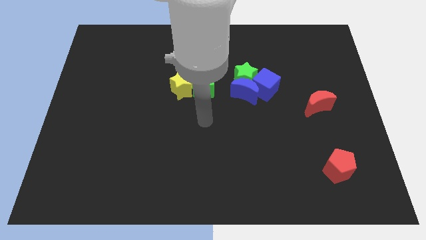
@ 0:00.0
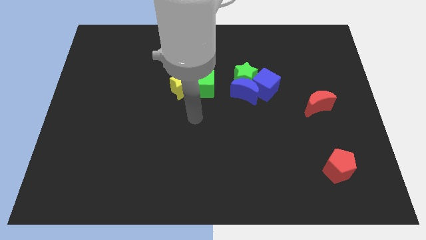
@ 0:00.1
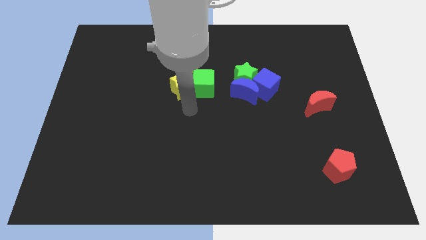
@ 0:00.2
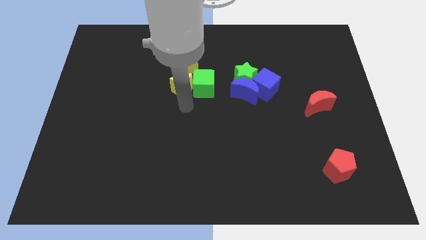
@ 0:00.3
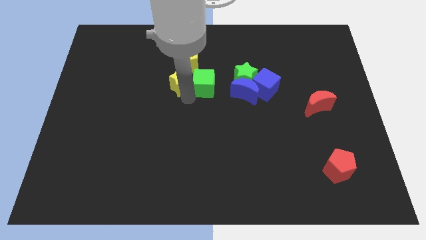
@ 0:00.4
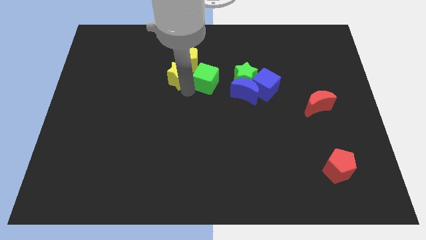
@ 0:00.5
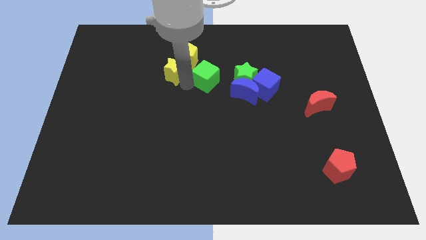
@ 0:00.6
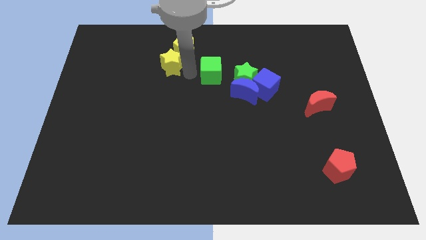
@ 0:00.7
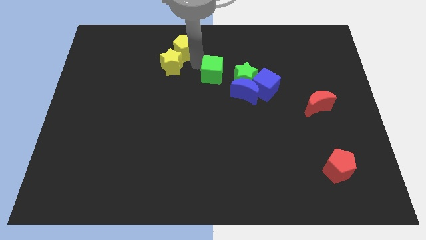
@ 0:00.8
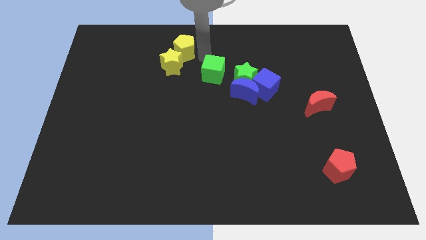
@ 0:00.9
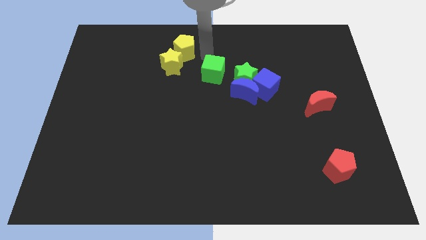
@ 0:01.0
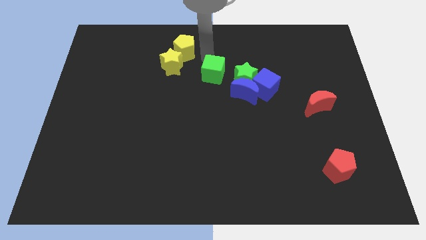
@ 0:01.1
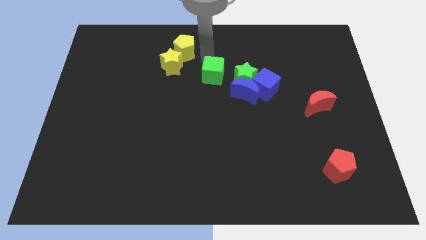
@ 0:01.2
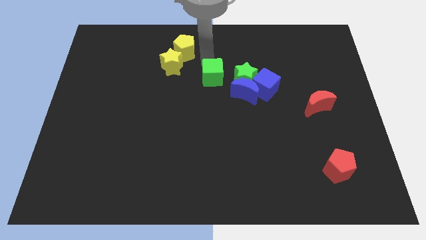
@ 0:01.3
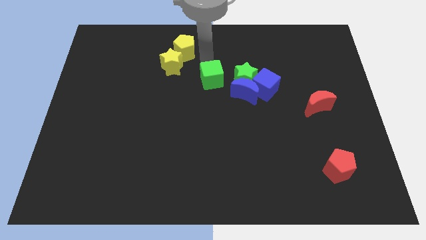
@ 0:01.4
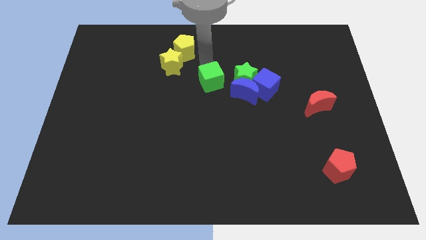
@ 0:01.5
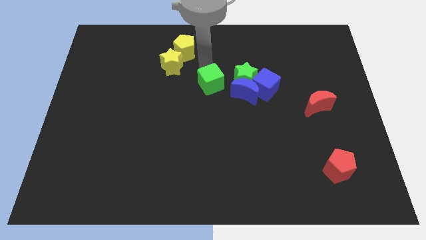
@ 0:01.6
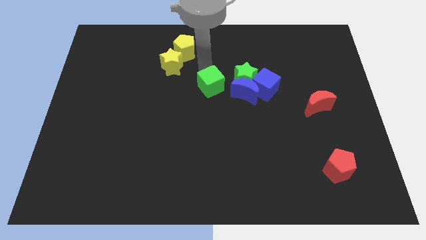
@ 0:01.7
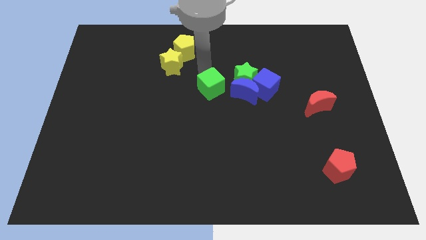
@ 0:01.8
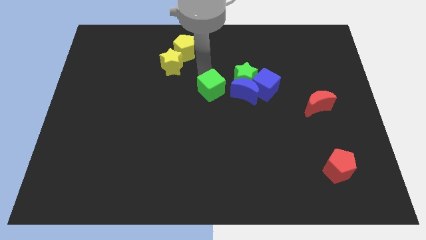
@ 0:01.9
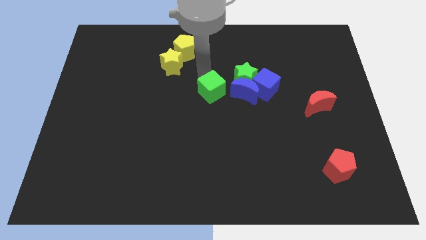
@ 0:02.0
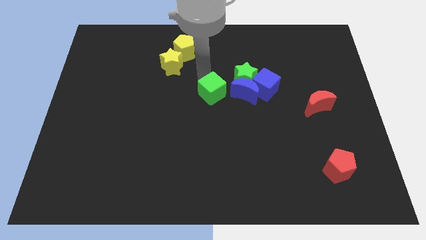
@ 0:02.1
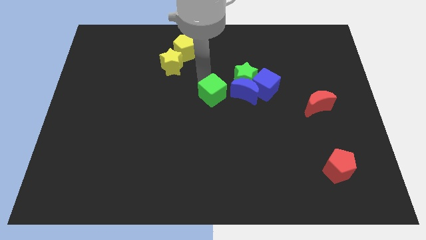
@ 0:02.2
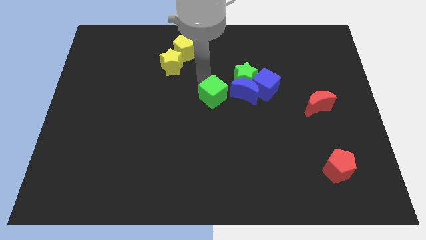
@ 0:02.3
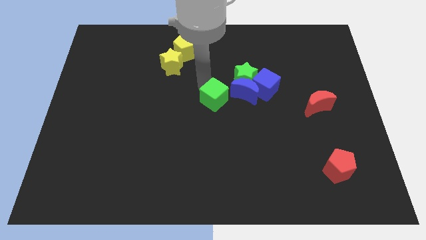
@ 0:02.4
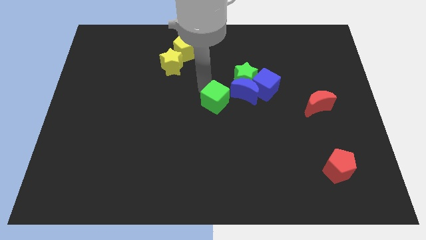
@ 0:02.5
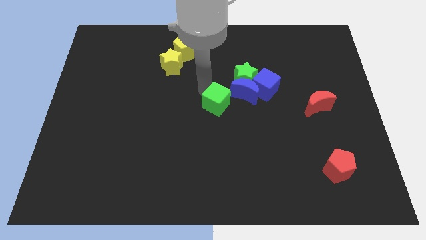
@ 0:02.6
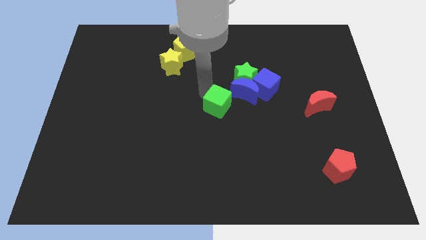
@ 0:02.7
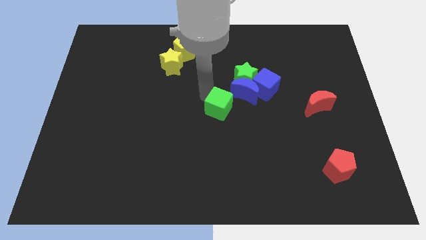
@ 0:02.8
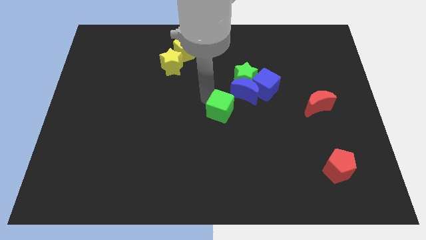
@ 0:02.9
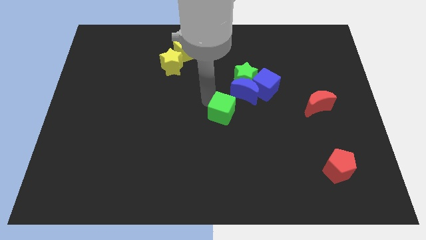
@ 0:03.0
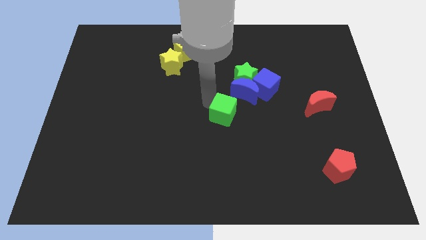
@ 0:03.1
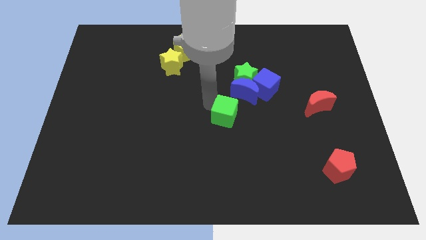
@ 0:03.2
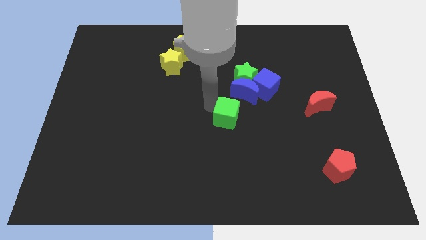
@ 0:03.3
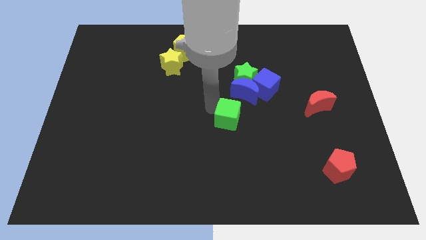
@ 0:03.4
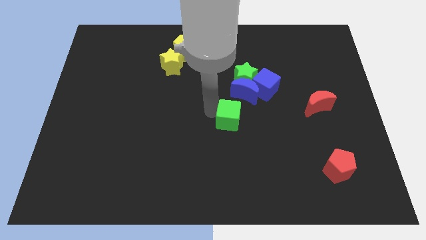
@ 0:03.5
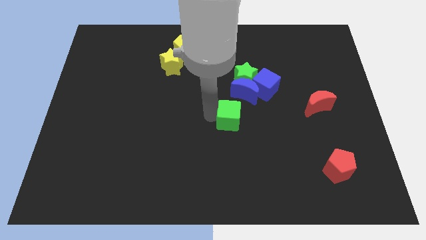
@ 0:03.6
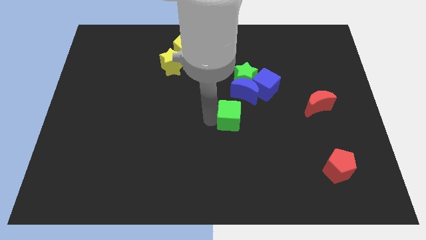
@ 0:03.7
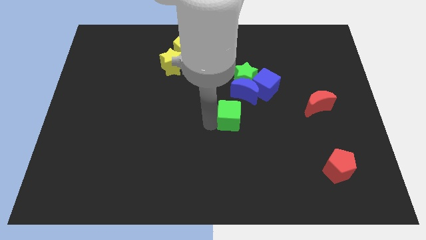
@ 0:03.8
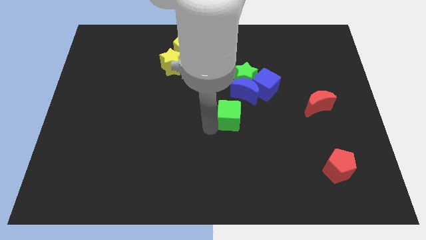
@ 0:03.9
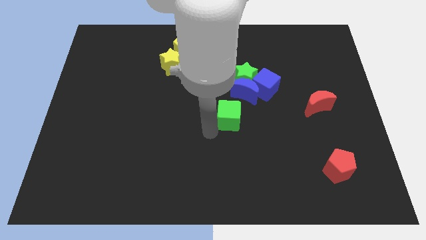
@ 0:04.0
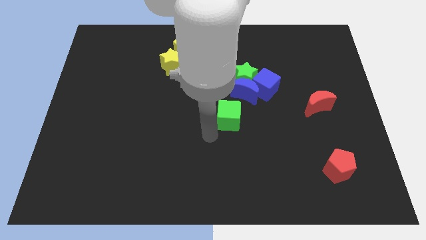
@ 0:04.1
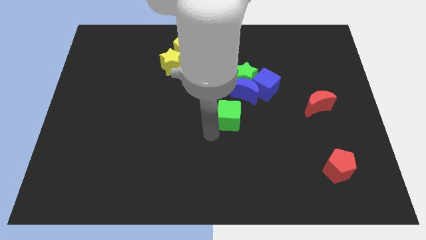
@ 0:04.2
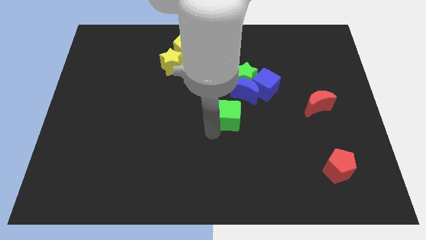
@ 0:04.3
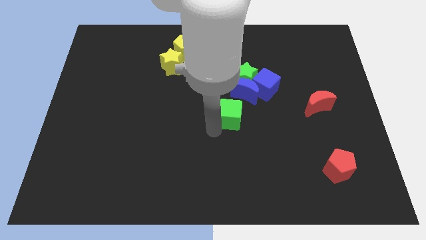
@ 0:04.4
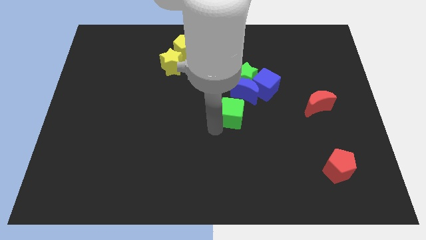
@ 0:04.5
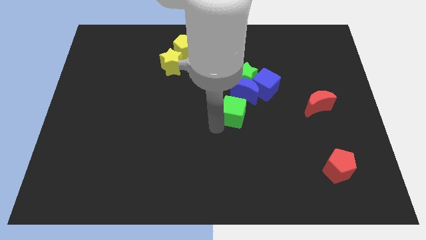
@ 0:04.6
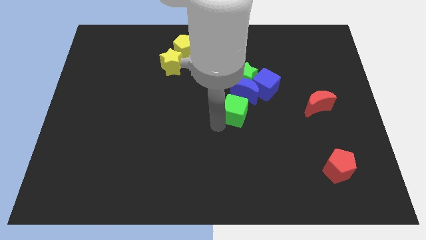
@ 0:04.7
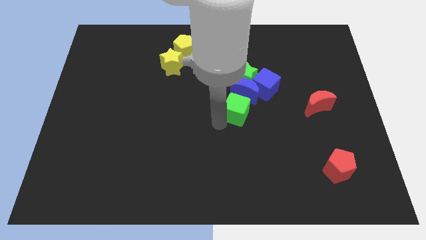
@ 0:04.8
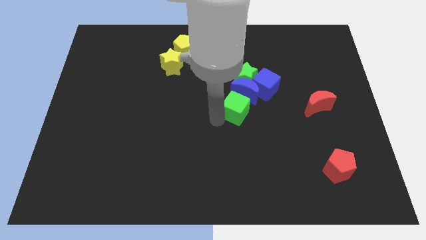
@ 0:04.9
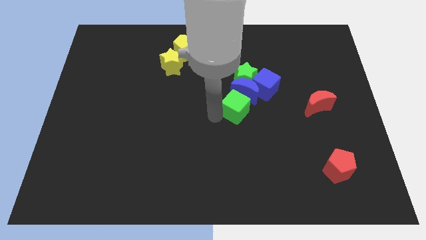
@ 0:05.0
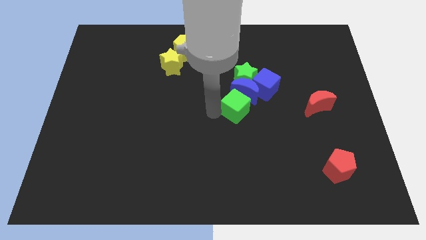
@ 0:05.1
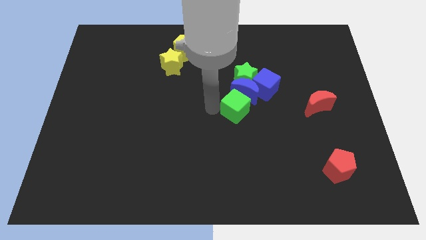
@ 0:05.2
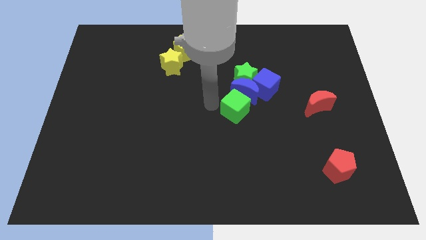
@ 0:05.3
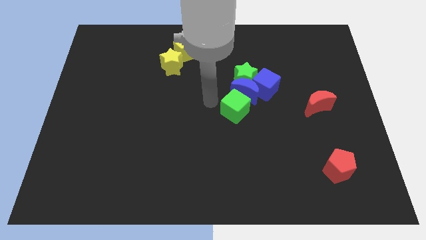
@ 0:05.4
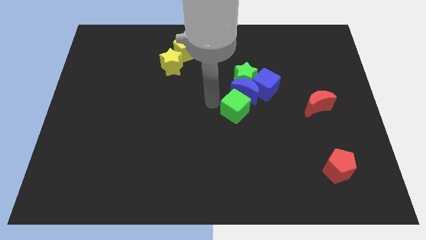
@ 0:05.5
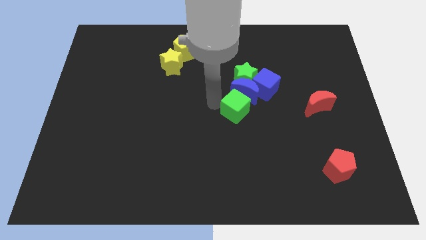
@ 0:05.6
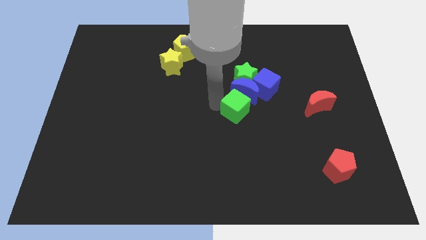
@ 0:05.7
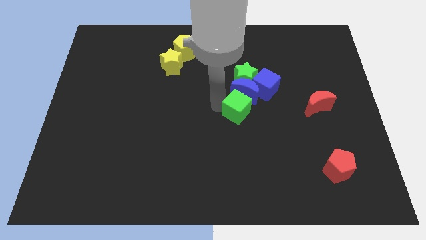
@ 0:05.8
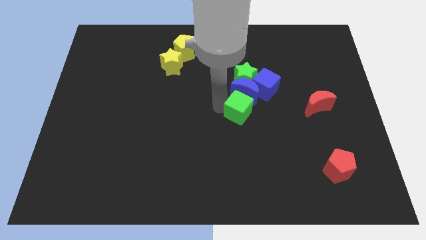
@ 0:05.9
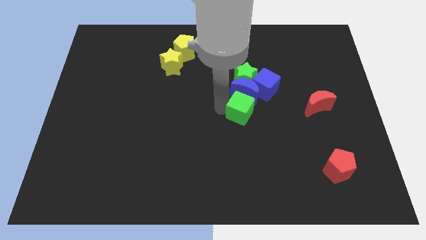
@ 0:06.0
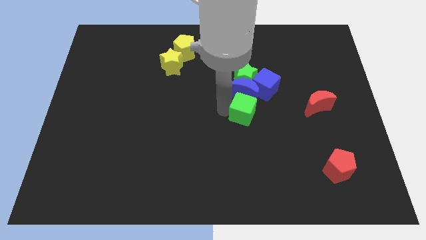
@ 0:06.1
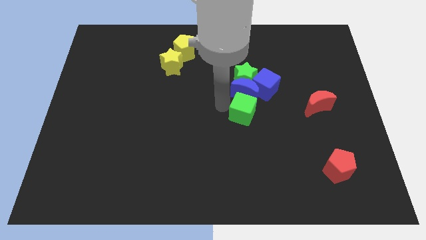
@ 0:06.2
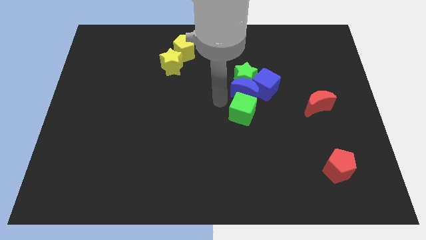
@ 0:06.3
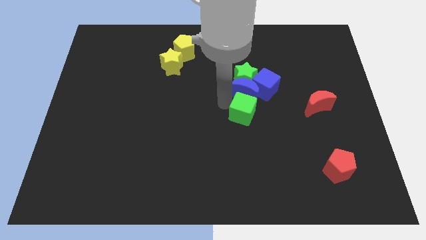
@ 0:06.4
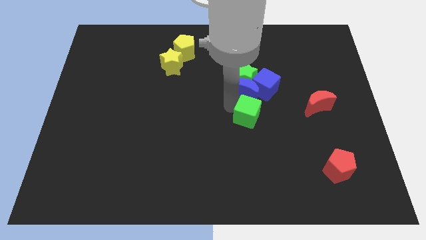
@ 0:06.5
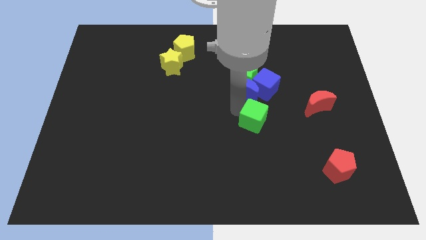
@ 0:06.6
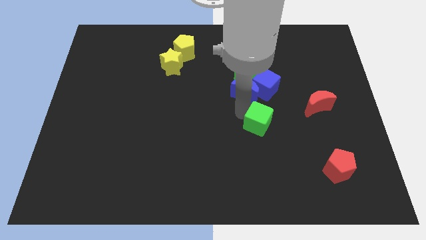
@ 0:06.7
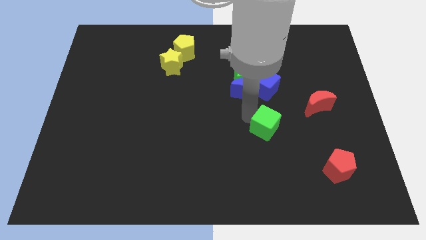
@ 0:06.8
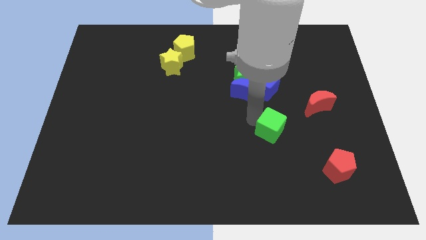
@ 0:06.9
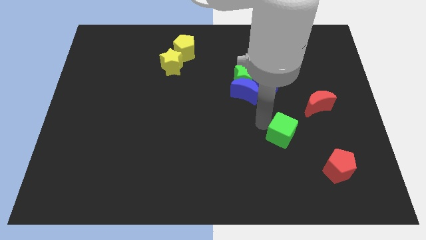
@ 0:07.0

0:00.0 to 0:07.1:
slide the green cube diagonally downwards and right

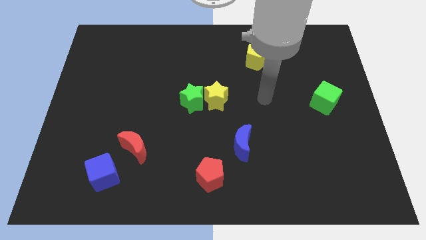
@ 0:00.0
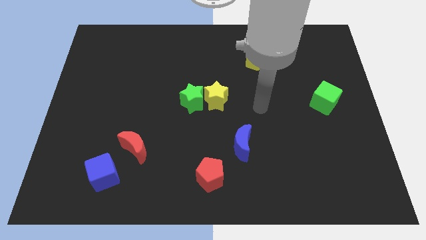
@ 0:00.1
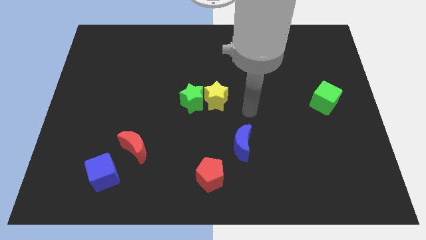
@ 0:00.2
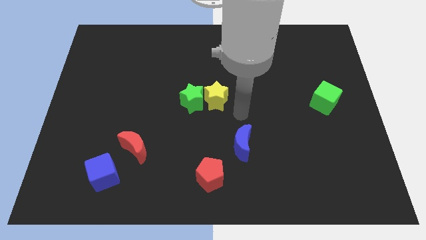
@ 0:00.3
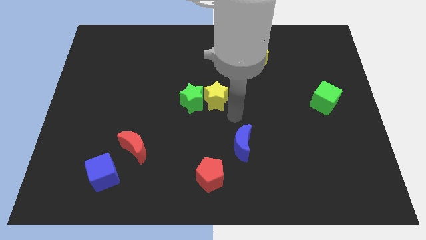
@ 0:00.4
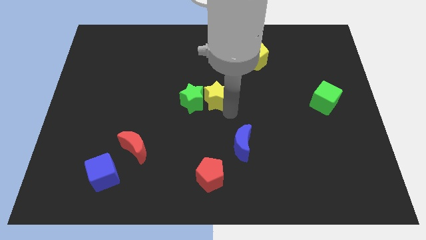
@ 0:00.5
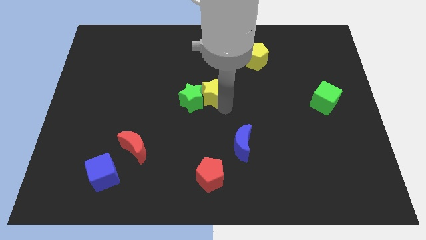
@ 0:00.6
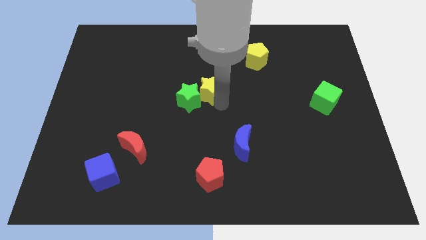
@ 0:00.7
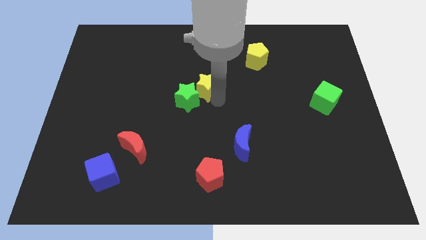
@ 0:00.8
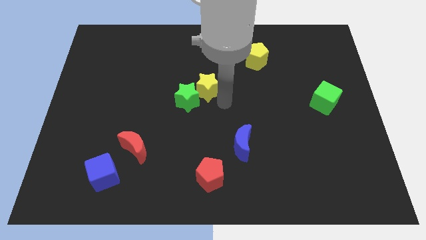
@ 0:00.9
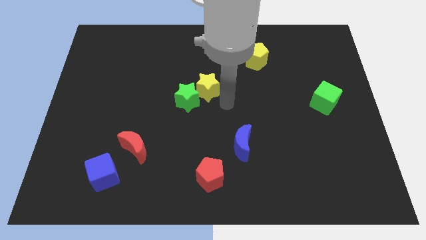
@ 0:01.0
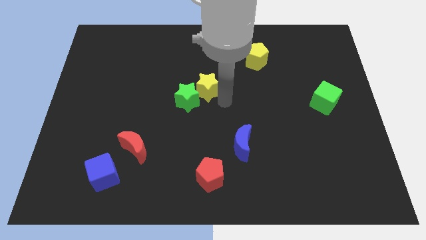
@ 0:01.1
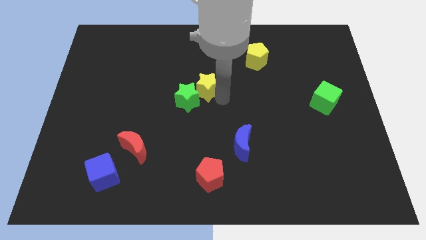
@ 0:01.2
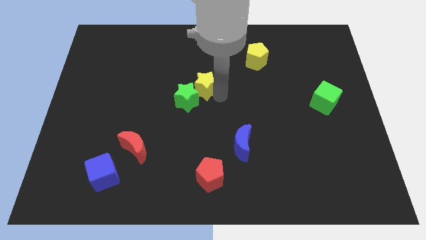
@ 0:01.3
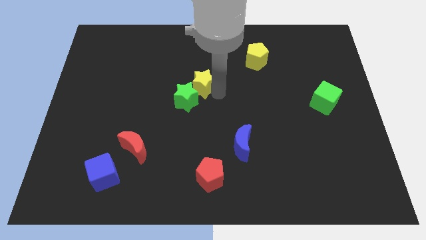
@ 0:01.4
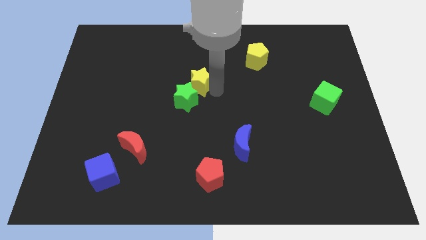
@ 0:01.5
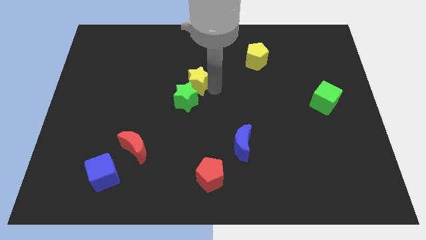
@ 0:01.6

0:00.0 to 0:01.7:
slide the yellow star slightly up and to the left diagonally
